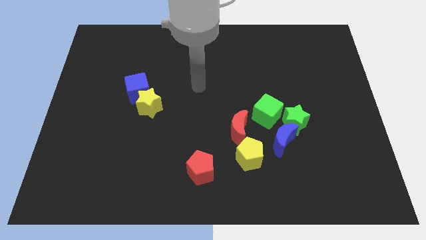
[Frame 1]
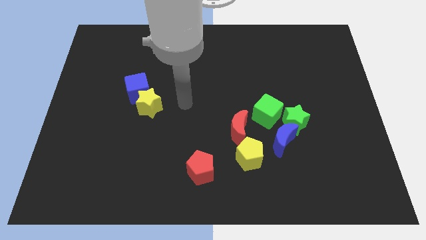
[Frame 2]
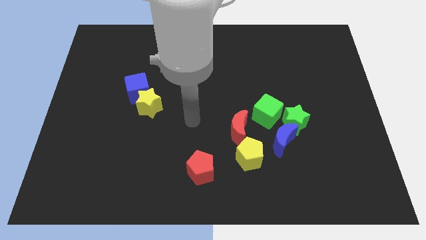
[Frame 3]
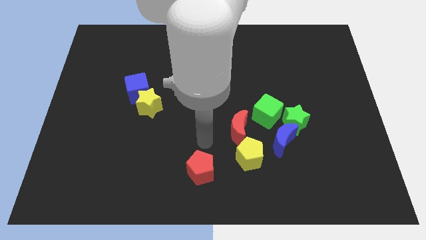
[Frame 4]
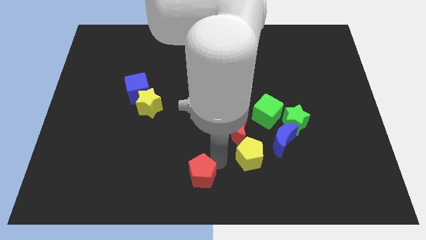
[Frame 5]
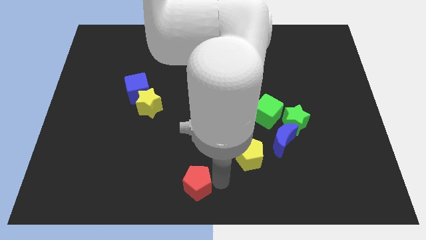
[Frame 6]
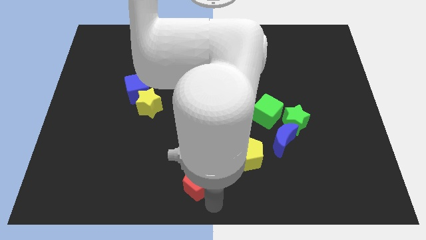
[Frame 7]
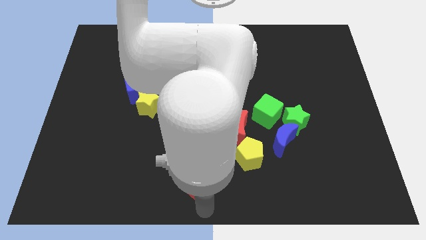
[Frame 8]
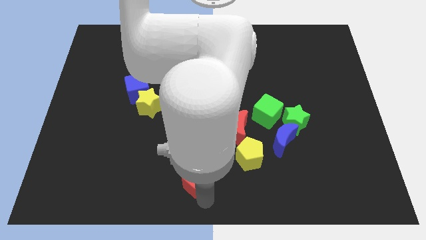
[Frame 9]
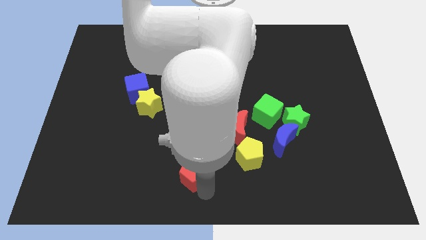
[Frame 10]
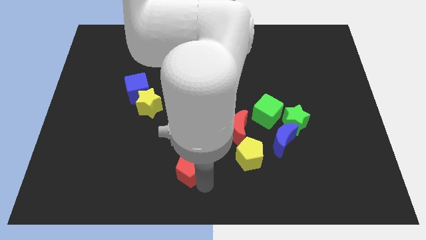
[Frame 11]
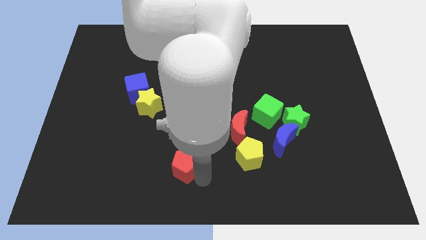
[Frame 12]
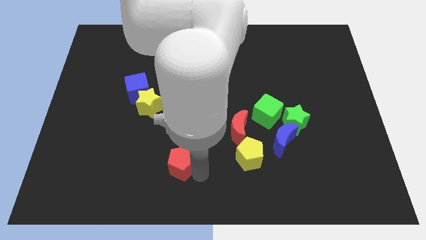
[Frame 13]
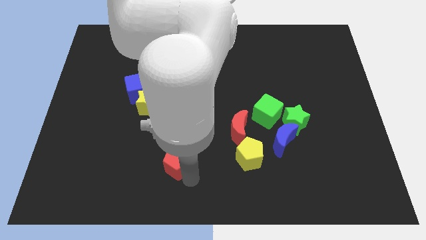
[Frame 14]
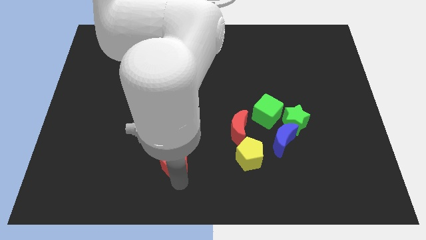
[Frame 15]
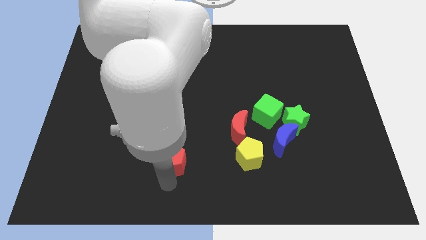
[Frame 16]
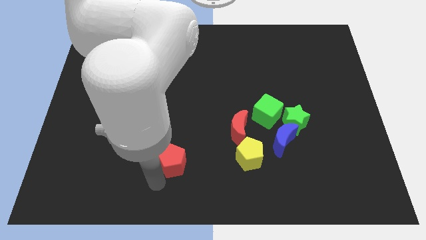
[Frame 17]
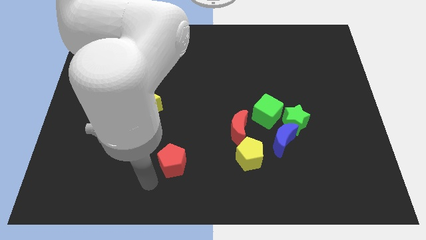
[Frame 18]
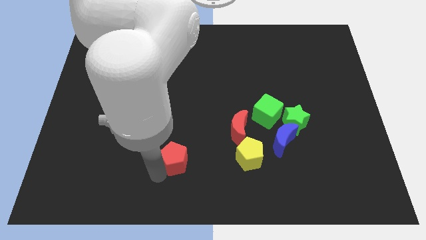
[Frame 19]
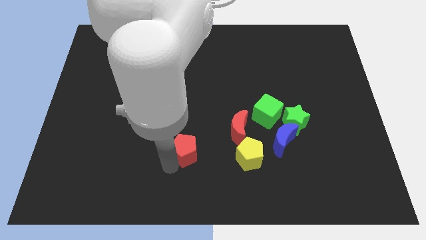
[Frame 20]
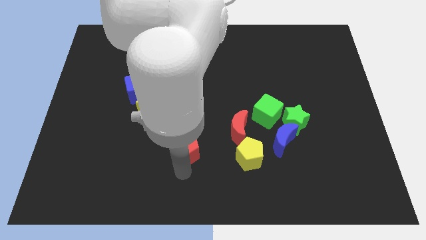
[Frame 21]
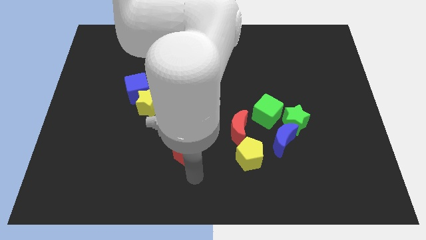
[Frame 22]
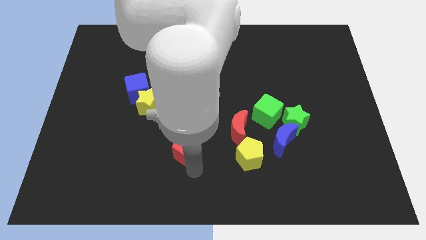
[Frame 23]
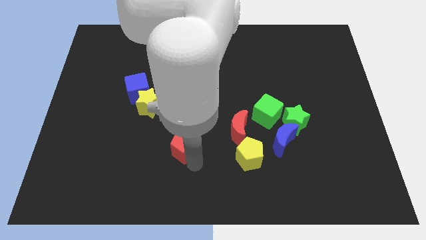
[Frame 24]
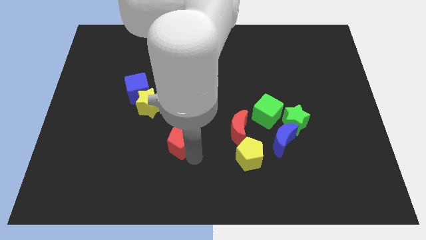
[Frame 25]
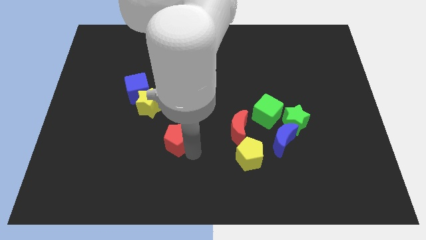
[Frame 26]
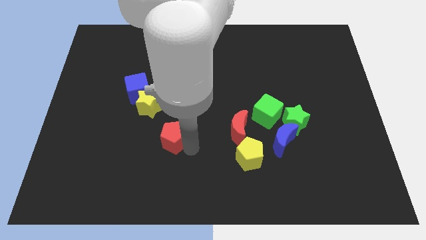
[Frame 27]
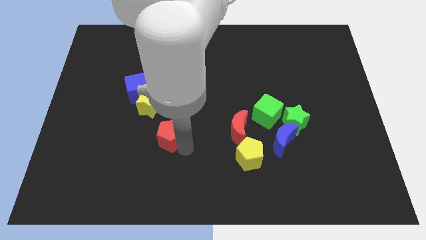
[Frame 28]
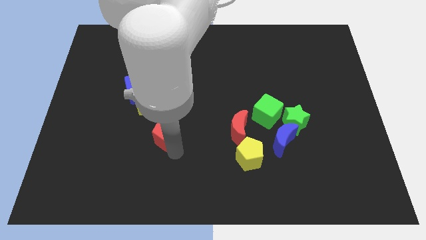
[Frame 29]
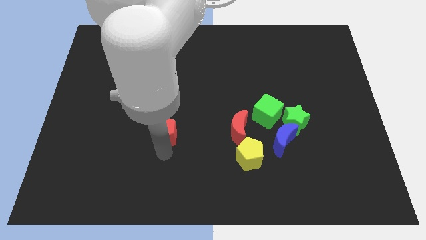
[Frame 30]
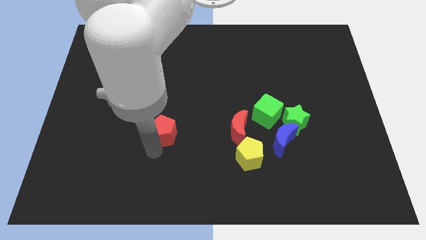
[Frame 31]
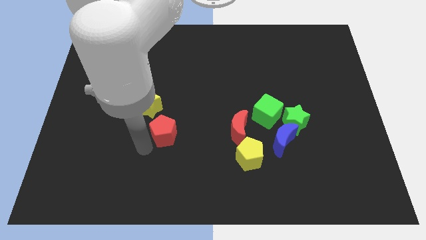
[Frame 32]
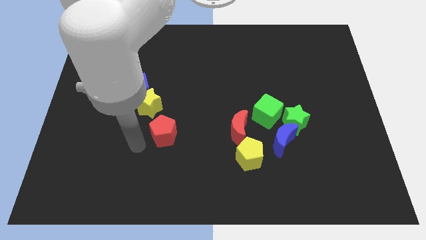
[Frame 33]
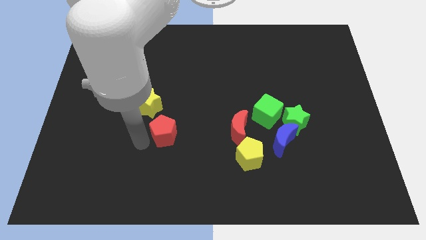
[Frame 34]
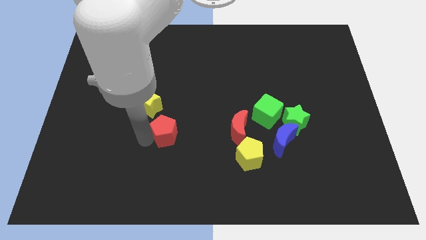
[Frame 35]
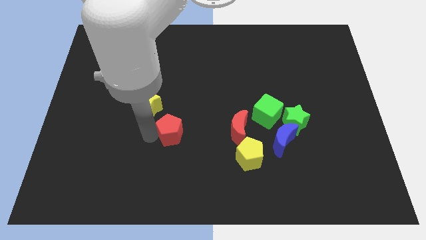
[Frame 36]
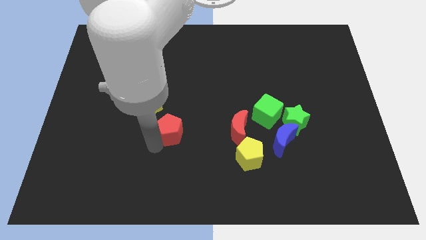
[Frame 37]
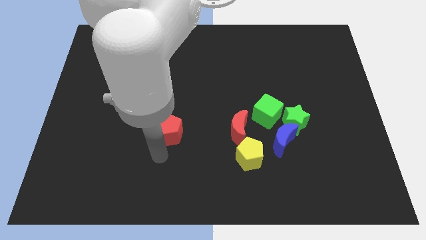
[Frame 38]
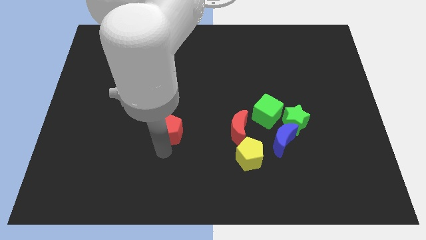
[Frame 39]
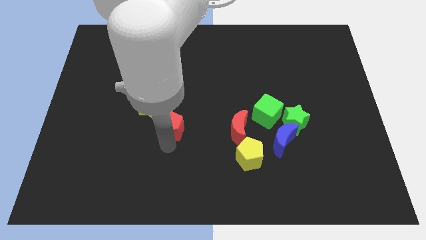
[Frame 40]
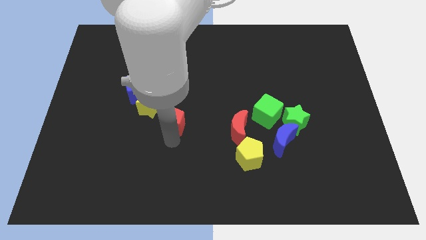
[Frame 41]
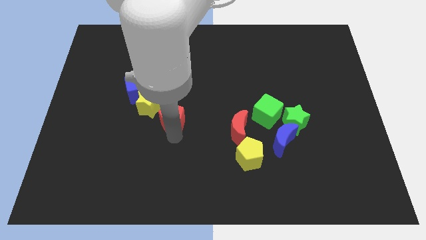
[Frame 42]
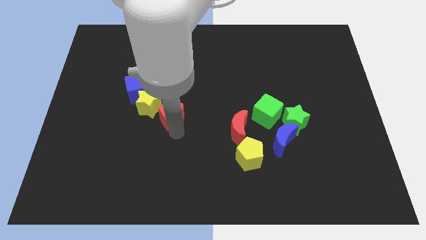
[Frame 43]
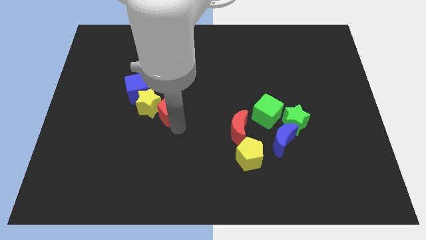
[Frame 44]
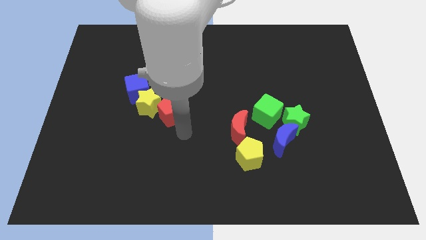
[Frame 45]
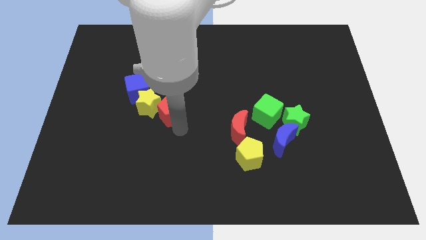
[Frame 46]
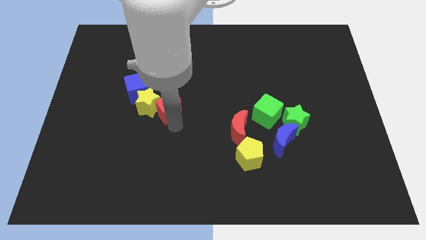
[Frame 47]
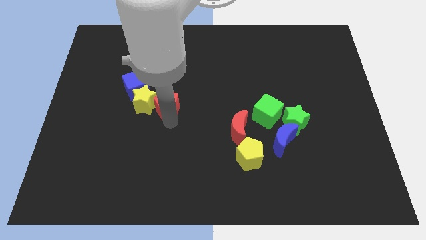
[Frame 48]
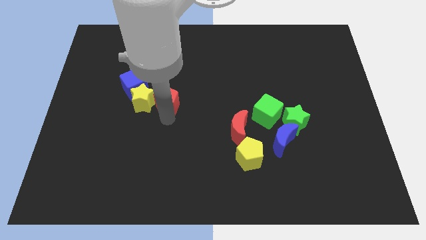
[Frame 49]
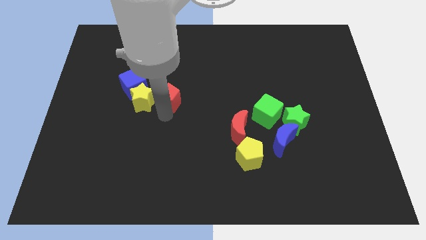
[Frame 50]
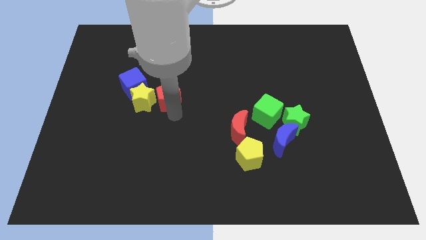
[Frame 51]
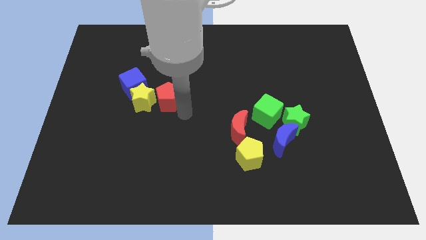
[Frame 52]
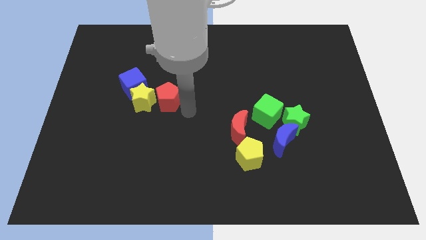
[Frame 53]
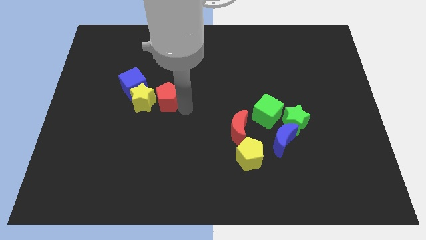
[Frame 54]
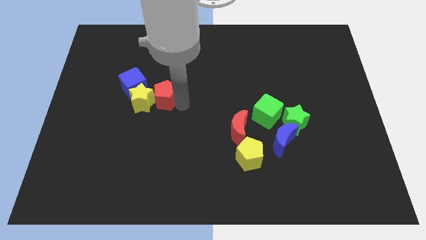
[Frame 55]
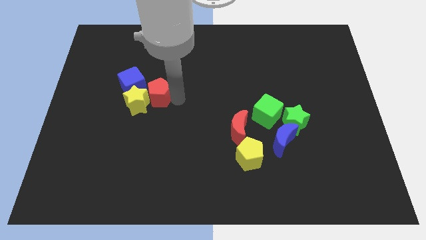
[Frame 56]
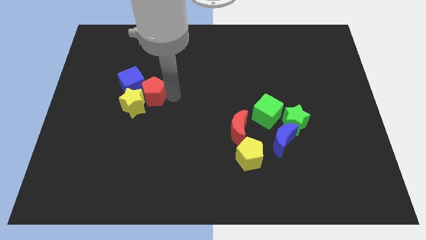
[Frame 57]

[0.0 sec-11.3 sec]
move the red pentagon close to the blue cube

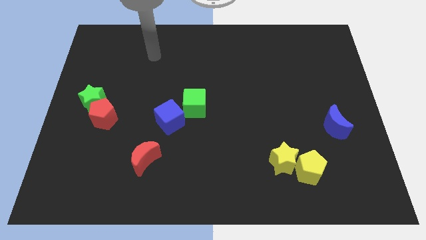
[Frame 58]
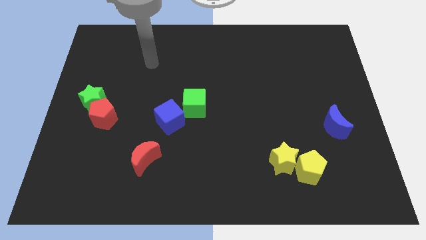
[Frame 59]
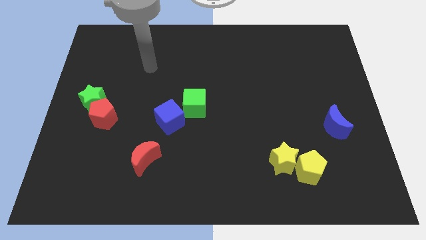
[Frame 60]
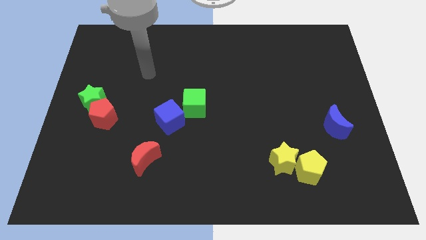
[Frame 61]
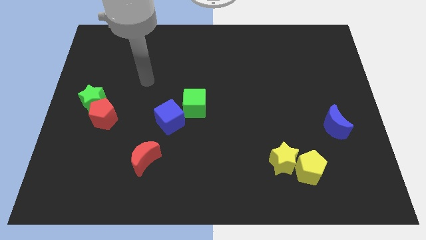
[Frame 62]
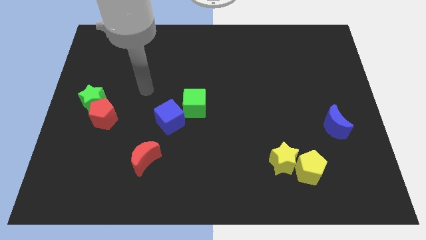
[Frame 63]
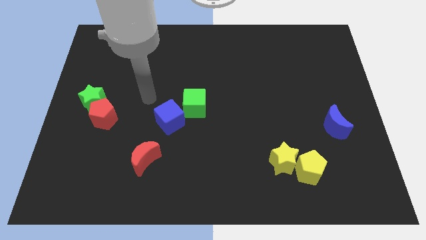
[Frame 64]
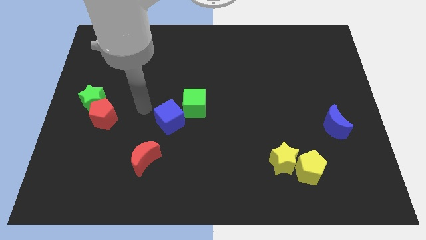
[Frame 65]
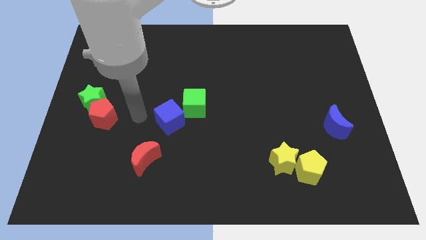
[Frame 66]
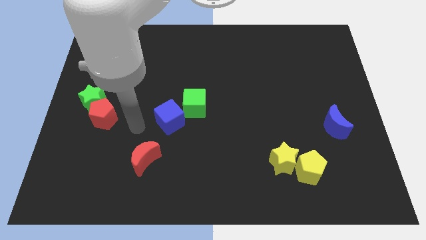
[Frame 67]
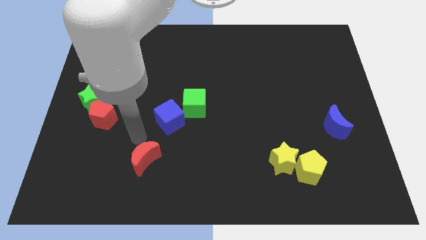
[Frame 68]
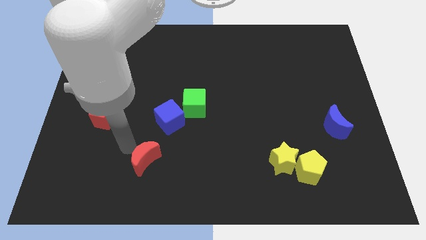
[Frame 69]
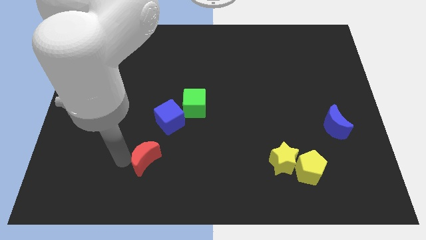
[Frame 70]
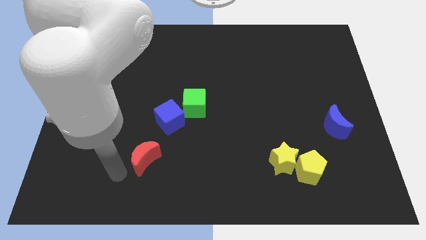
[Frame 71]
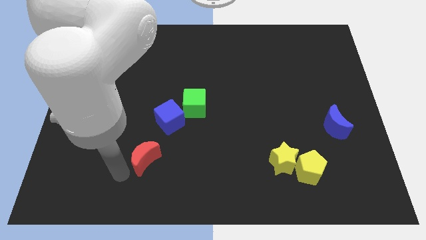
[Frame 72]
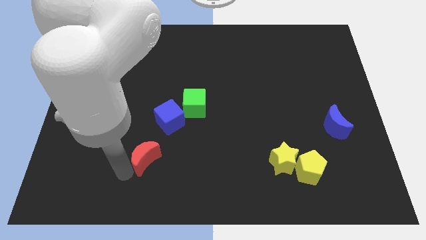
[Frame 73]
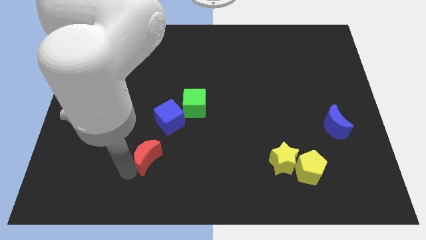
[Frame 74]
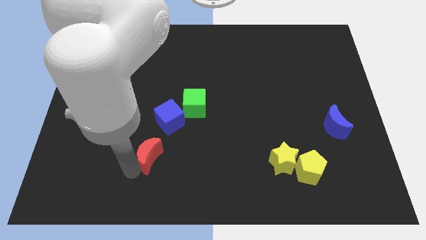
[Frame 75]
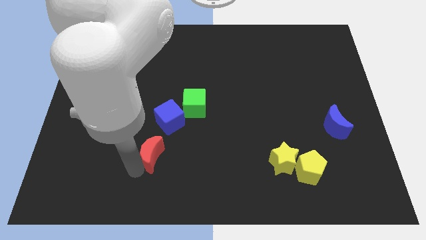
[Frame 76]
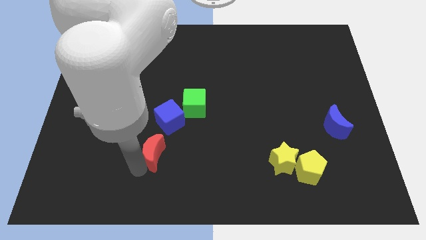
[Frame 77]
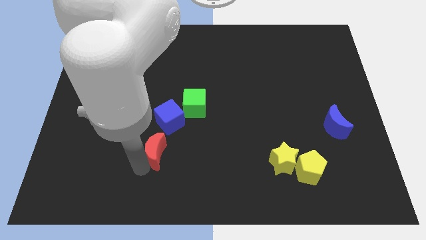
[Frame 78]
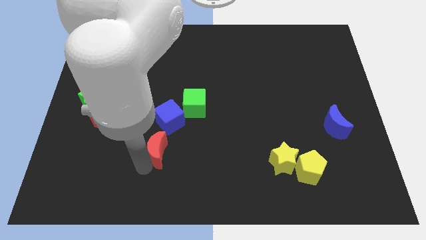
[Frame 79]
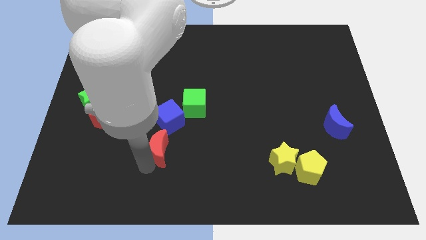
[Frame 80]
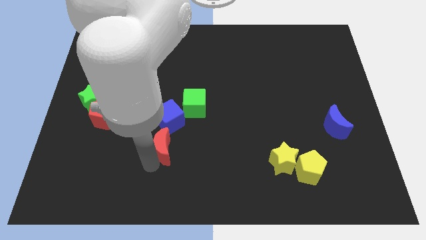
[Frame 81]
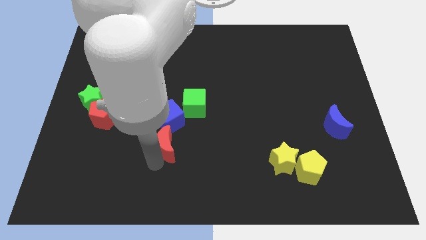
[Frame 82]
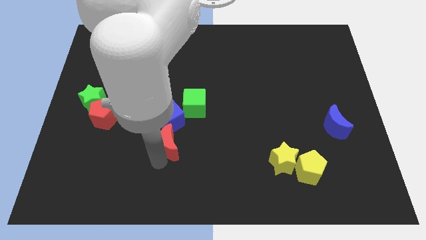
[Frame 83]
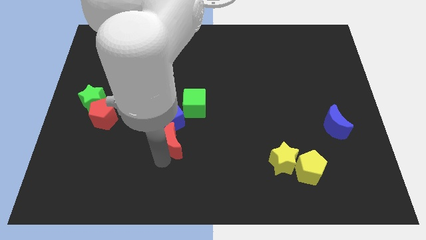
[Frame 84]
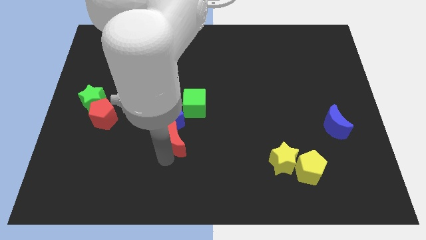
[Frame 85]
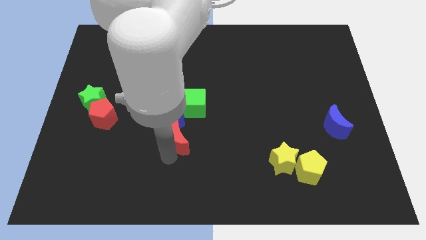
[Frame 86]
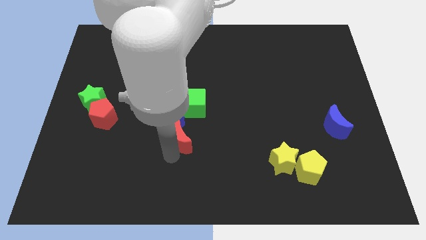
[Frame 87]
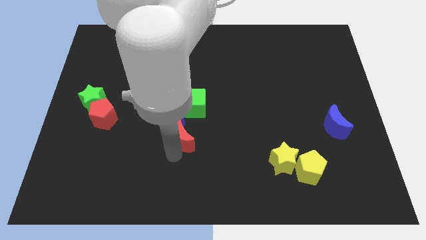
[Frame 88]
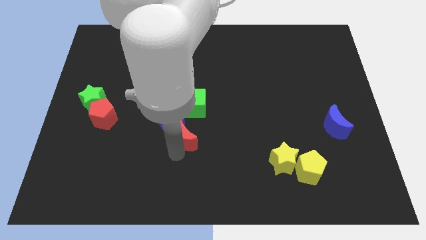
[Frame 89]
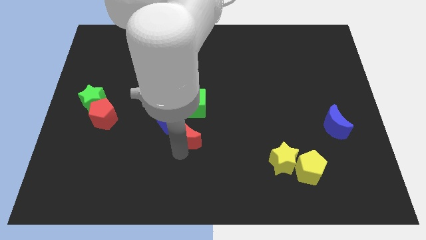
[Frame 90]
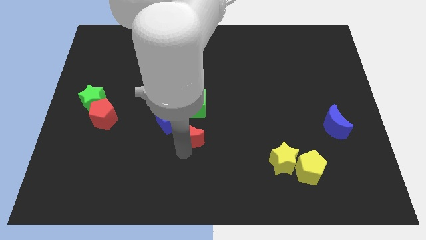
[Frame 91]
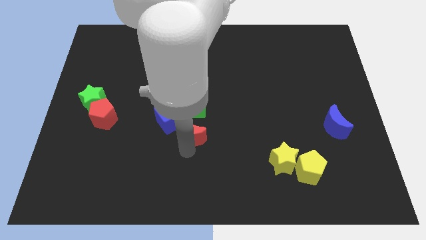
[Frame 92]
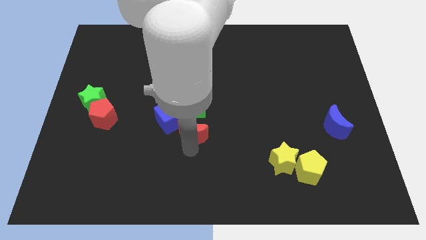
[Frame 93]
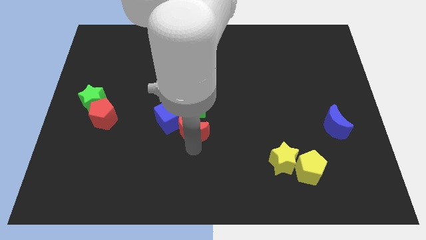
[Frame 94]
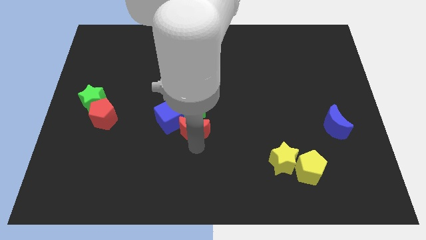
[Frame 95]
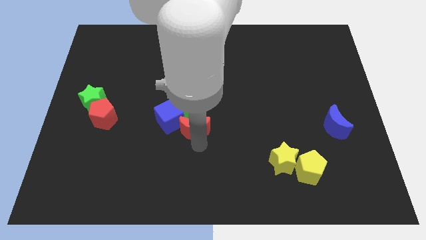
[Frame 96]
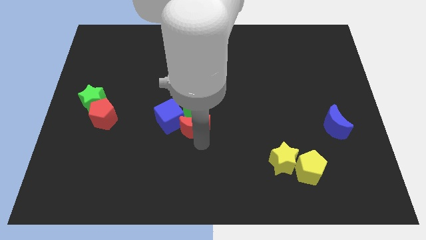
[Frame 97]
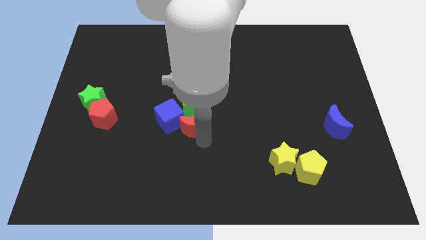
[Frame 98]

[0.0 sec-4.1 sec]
push the red moon towards the green cube
